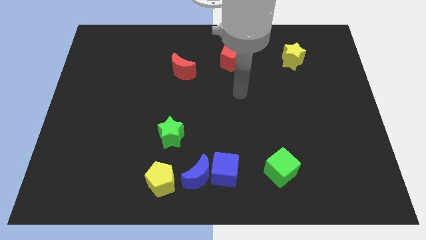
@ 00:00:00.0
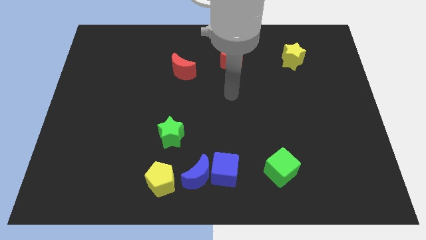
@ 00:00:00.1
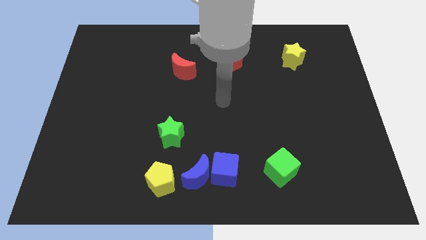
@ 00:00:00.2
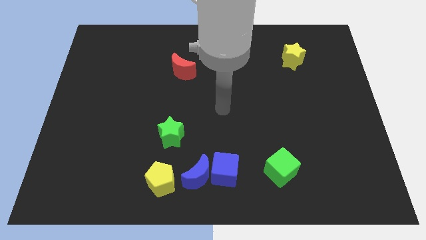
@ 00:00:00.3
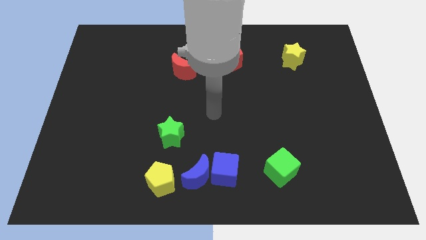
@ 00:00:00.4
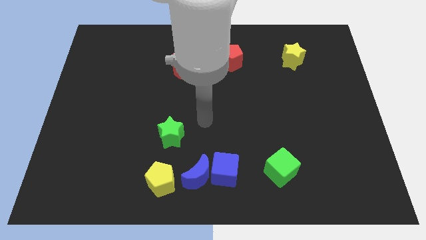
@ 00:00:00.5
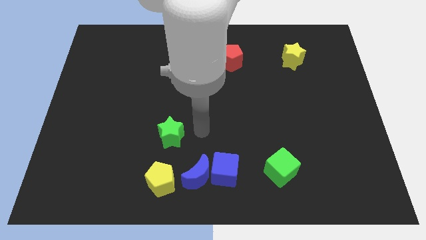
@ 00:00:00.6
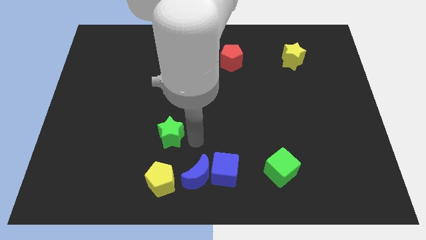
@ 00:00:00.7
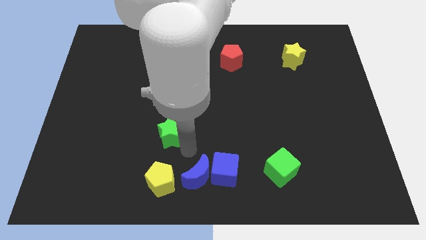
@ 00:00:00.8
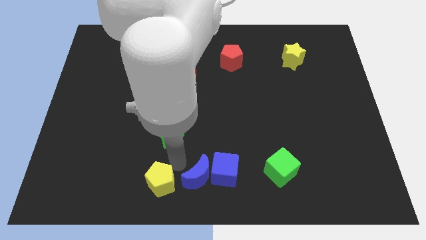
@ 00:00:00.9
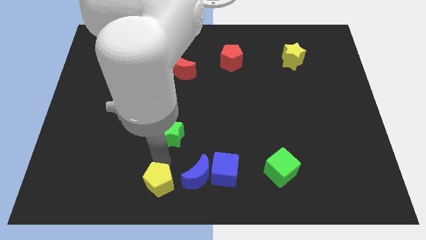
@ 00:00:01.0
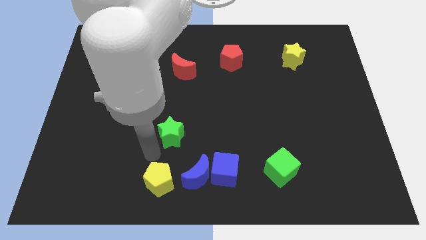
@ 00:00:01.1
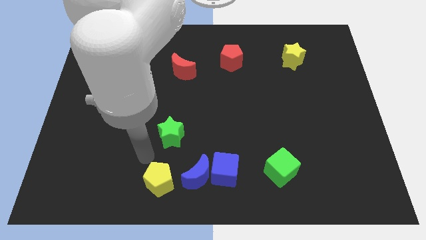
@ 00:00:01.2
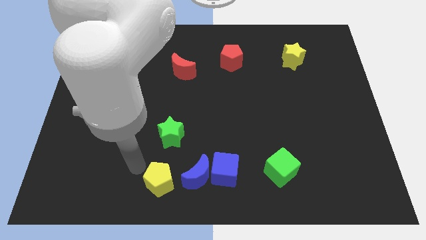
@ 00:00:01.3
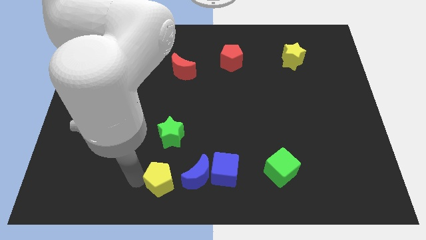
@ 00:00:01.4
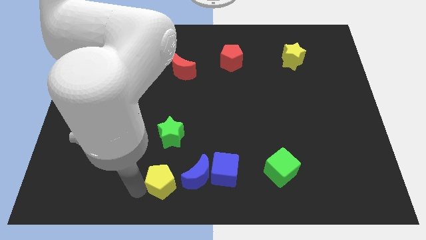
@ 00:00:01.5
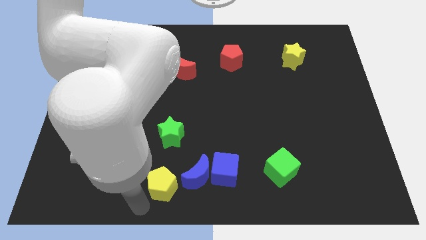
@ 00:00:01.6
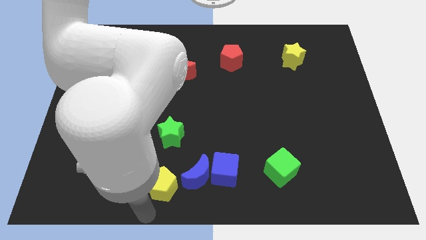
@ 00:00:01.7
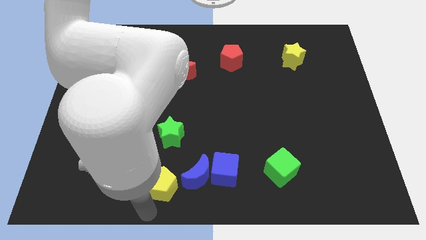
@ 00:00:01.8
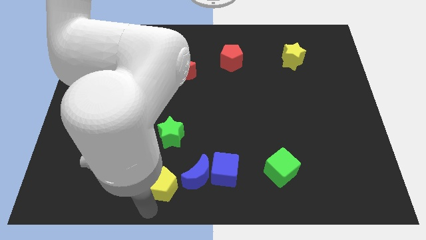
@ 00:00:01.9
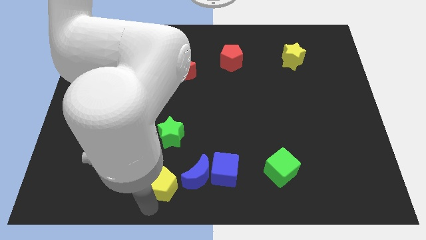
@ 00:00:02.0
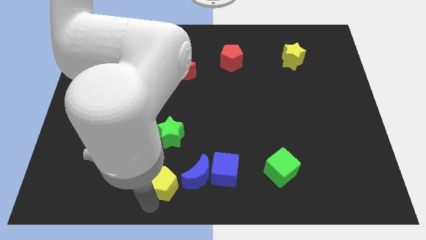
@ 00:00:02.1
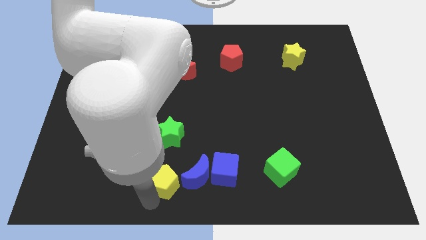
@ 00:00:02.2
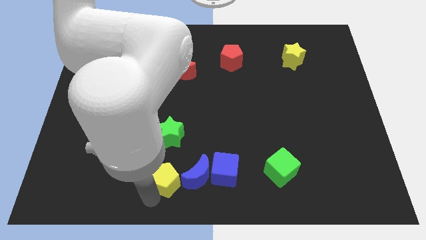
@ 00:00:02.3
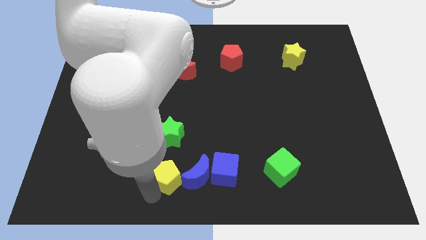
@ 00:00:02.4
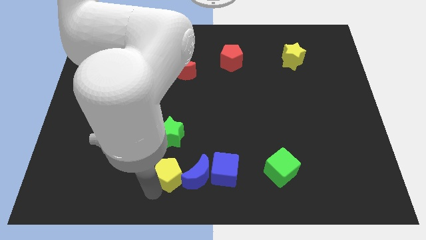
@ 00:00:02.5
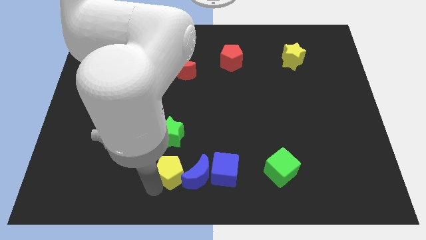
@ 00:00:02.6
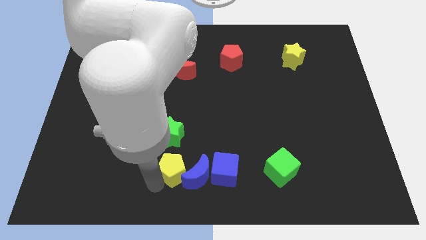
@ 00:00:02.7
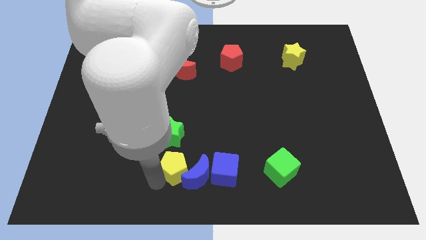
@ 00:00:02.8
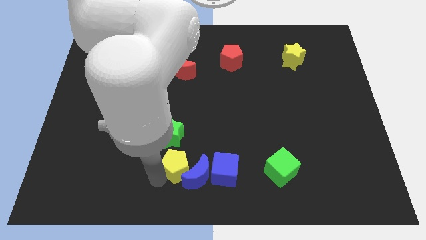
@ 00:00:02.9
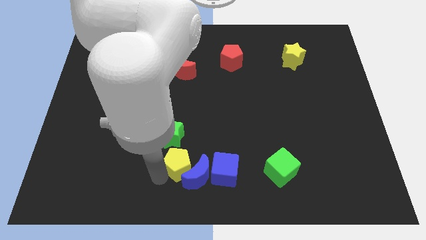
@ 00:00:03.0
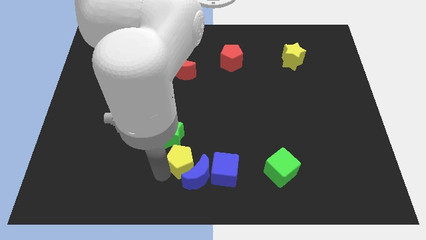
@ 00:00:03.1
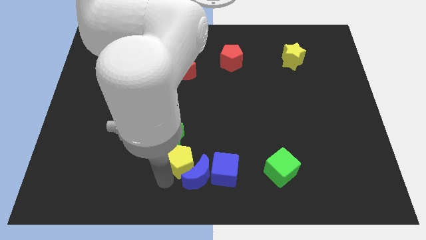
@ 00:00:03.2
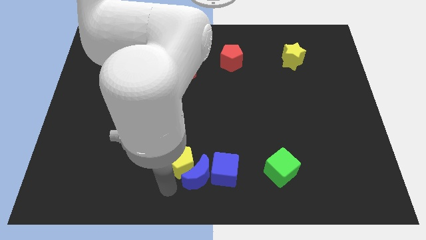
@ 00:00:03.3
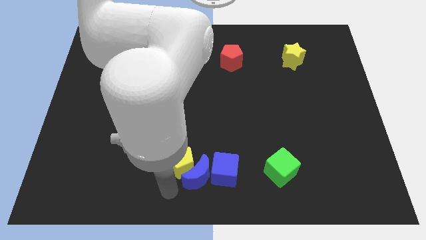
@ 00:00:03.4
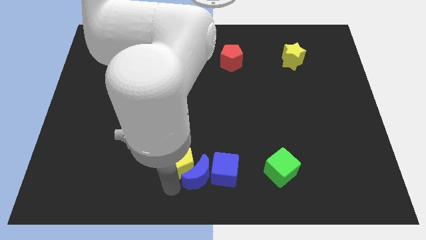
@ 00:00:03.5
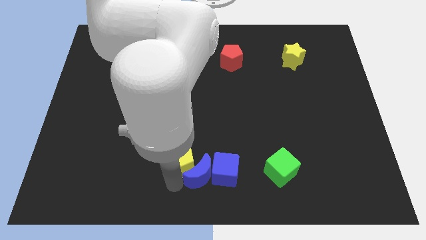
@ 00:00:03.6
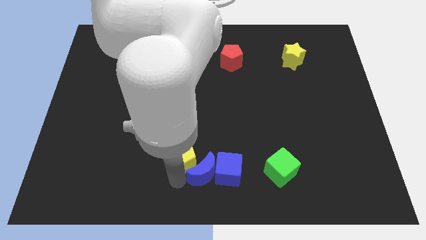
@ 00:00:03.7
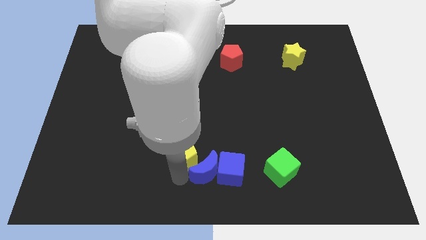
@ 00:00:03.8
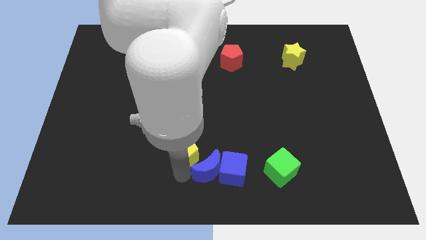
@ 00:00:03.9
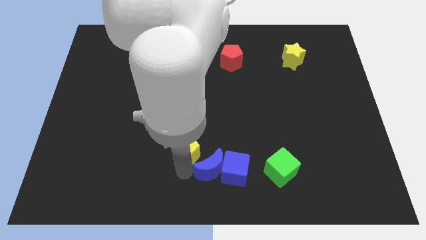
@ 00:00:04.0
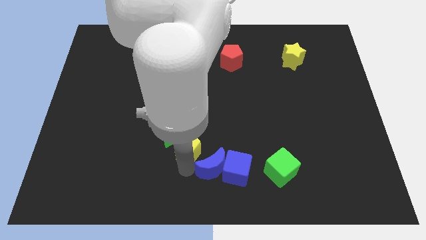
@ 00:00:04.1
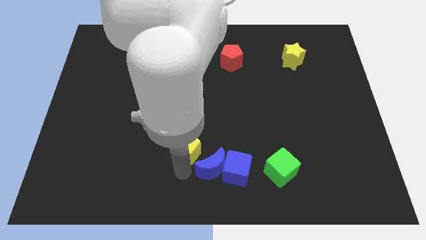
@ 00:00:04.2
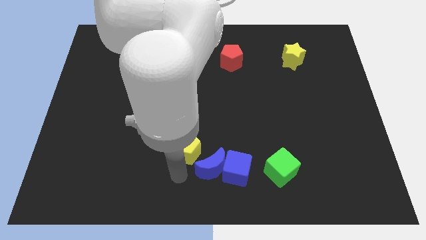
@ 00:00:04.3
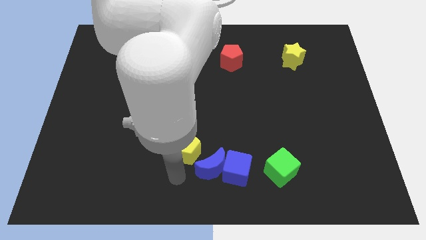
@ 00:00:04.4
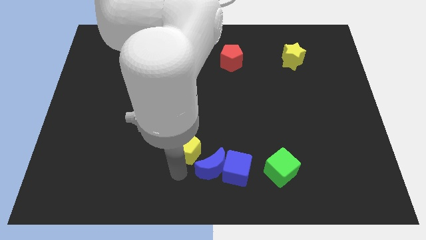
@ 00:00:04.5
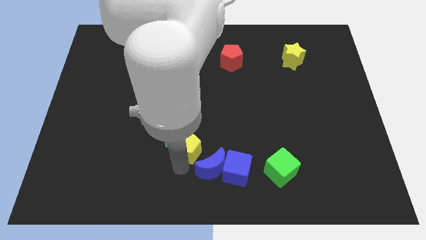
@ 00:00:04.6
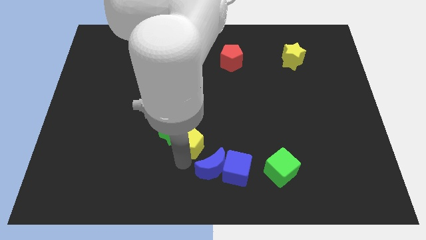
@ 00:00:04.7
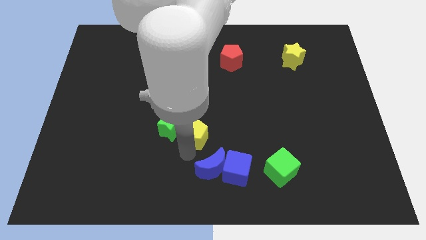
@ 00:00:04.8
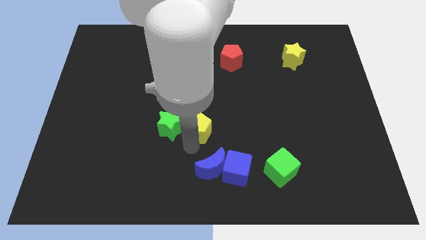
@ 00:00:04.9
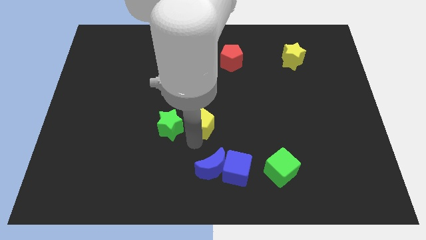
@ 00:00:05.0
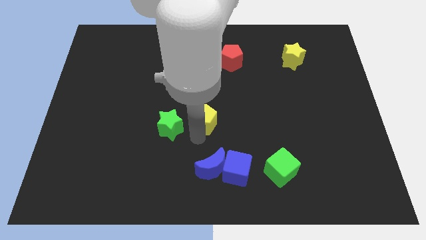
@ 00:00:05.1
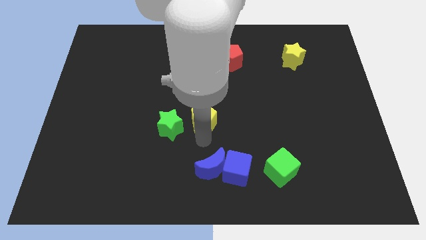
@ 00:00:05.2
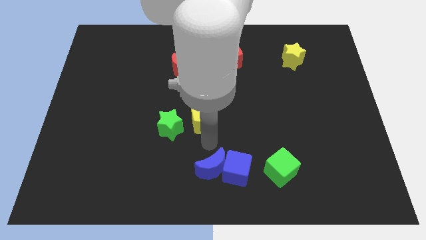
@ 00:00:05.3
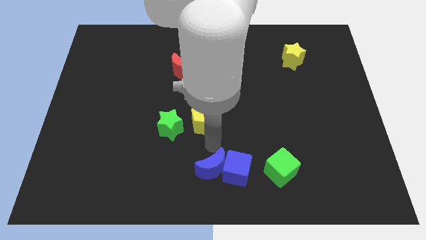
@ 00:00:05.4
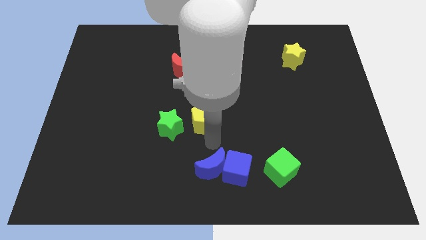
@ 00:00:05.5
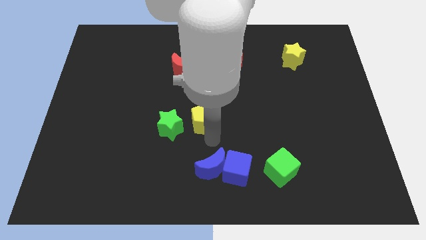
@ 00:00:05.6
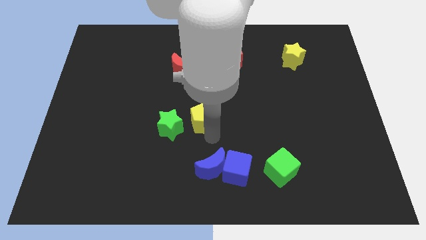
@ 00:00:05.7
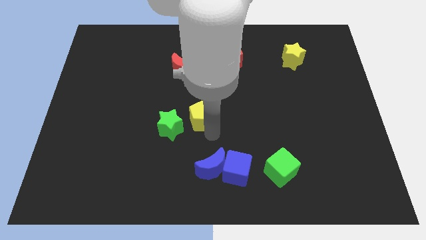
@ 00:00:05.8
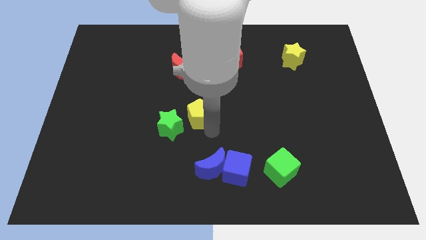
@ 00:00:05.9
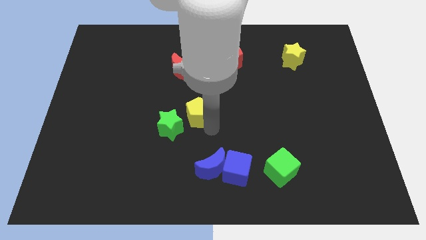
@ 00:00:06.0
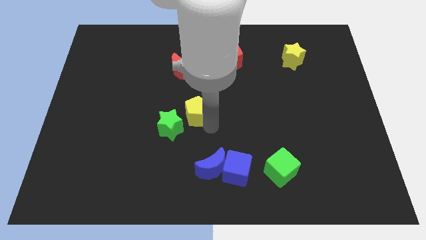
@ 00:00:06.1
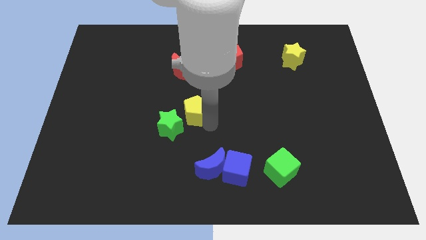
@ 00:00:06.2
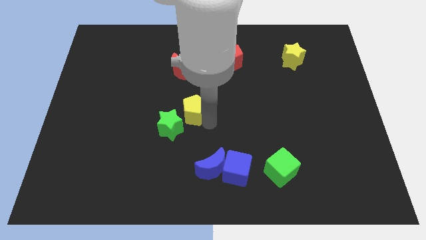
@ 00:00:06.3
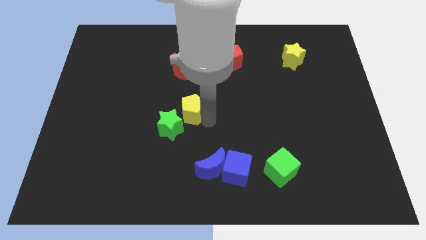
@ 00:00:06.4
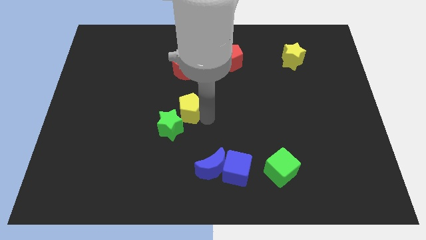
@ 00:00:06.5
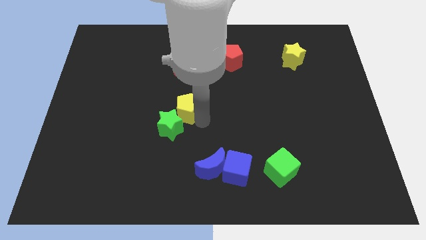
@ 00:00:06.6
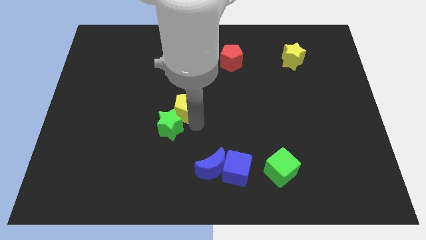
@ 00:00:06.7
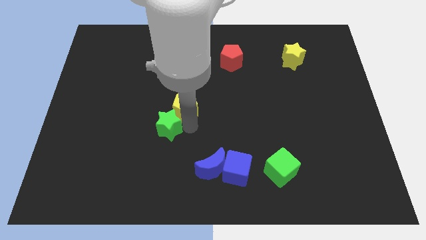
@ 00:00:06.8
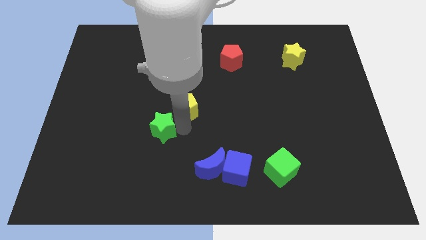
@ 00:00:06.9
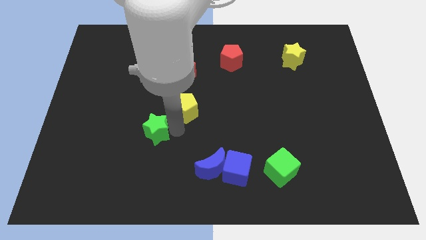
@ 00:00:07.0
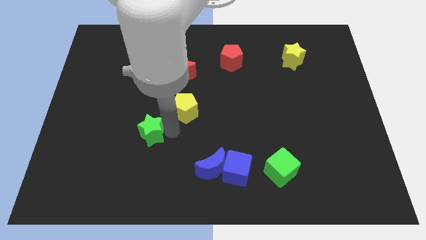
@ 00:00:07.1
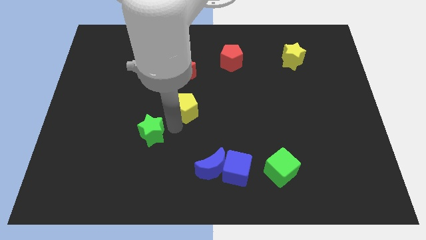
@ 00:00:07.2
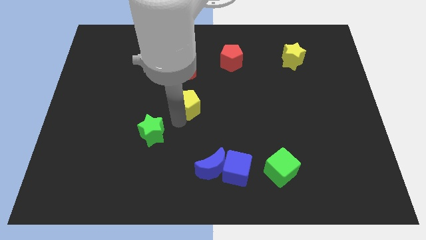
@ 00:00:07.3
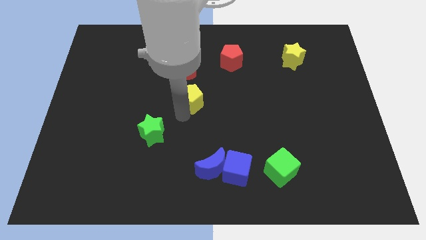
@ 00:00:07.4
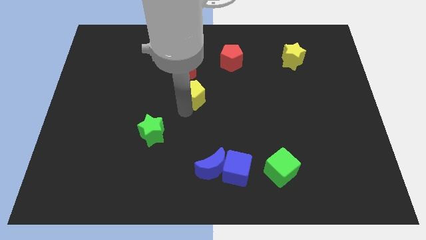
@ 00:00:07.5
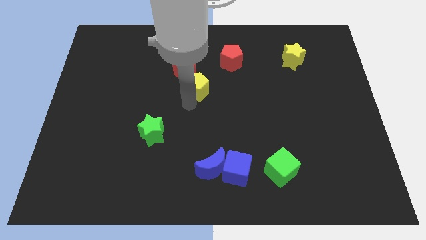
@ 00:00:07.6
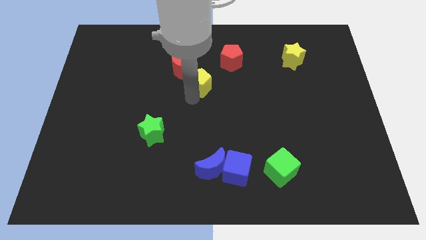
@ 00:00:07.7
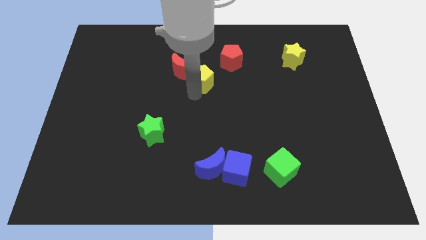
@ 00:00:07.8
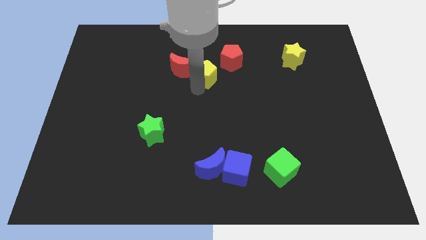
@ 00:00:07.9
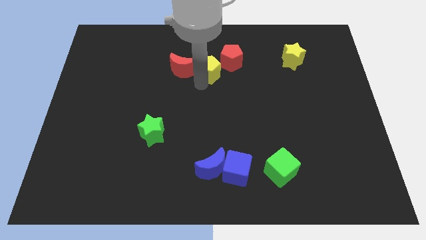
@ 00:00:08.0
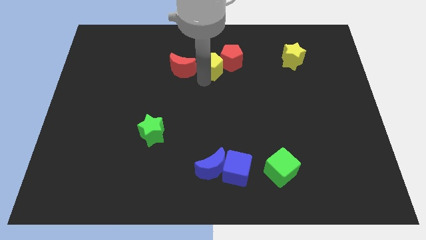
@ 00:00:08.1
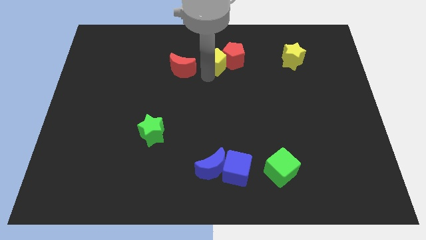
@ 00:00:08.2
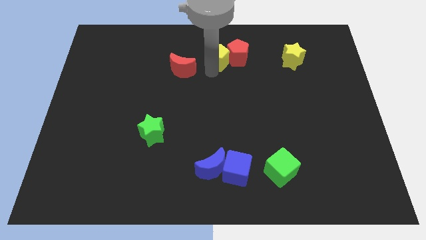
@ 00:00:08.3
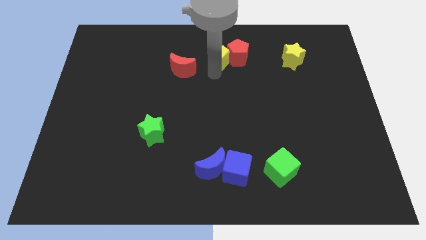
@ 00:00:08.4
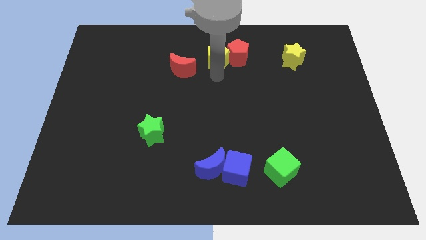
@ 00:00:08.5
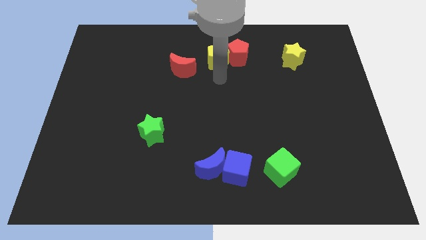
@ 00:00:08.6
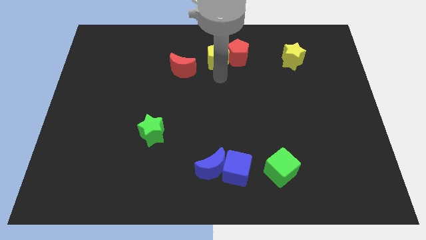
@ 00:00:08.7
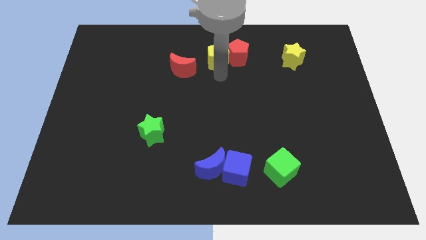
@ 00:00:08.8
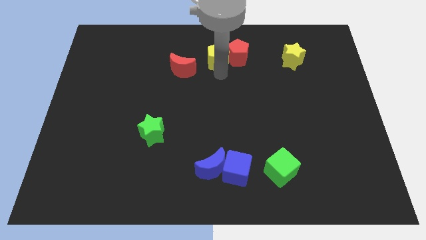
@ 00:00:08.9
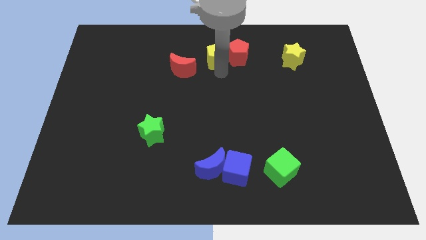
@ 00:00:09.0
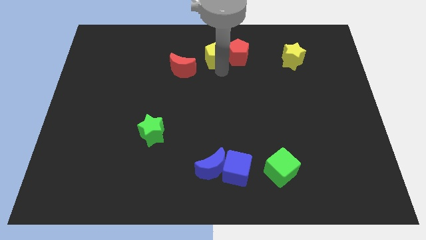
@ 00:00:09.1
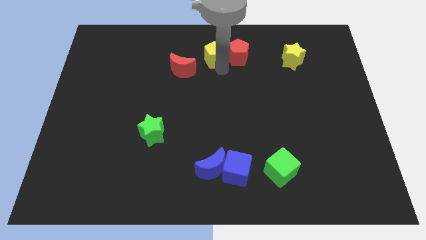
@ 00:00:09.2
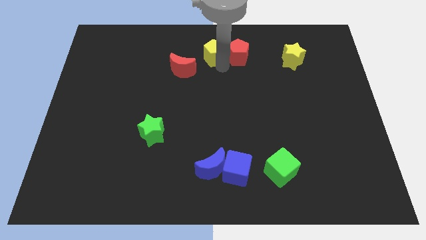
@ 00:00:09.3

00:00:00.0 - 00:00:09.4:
push the yellow pentagon to the top
